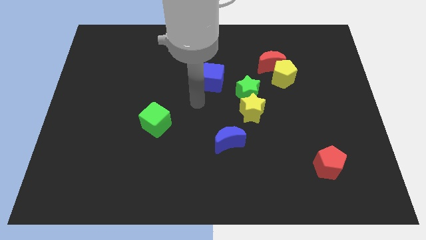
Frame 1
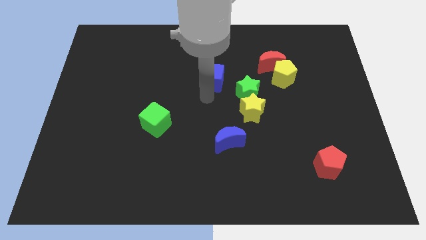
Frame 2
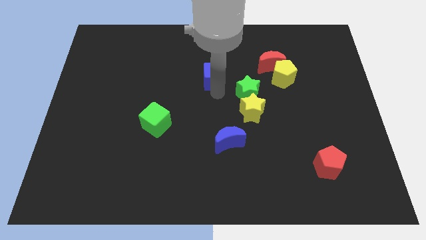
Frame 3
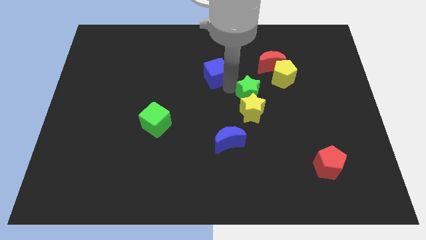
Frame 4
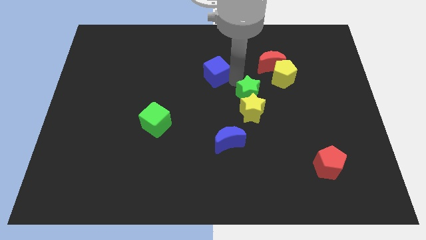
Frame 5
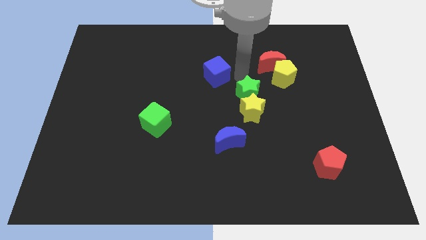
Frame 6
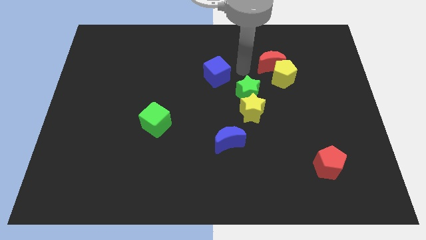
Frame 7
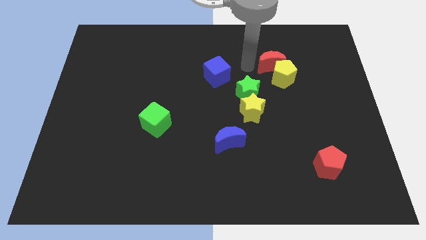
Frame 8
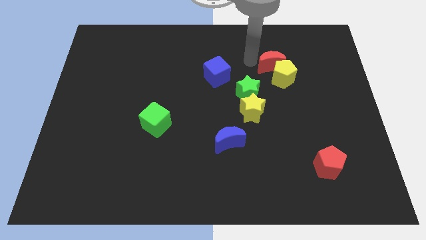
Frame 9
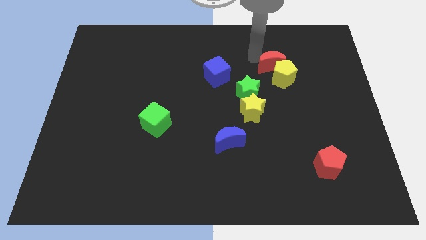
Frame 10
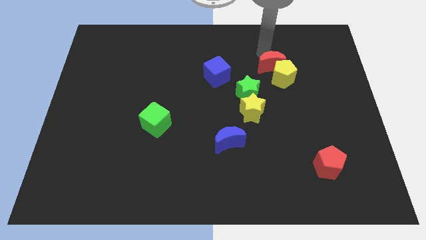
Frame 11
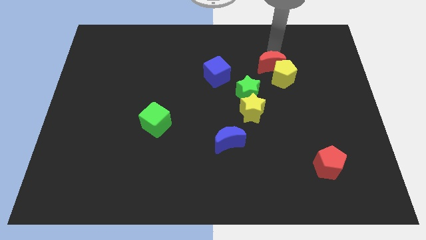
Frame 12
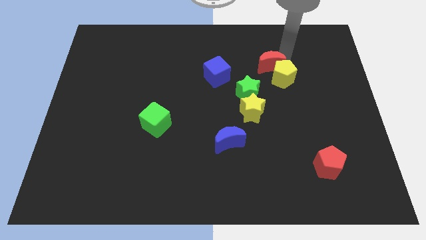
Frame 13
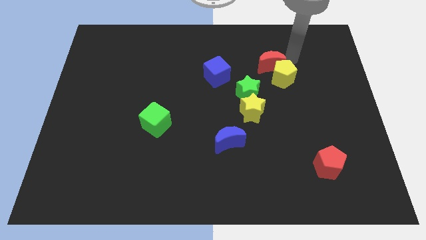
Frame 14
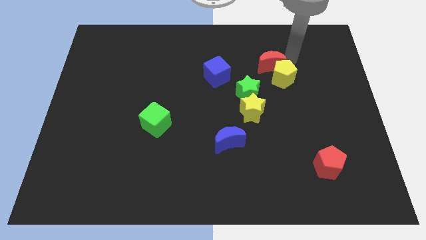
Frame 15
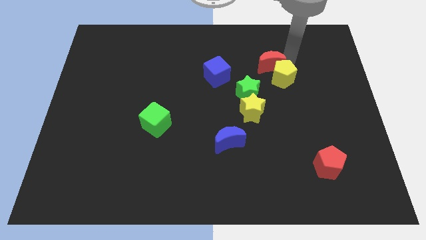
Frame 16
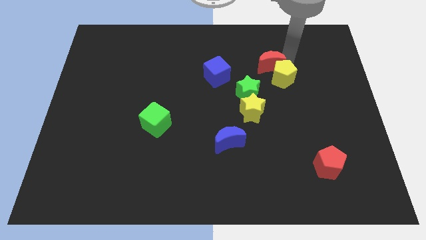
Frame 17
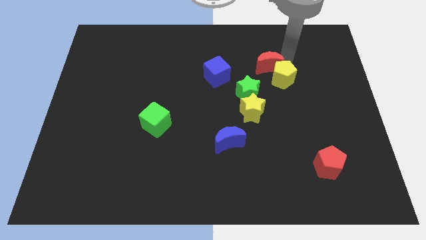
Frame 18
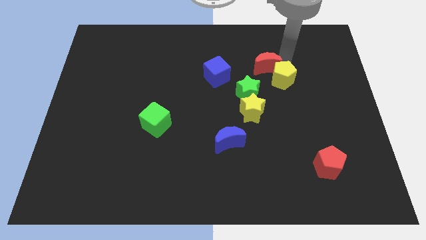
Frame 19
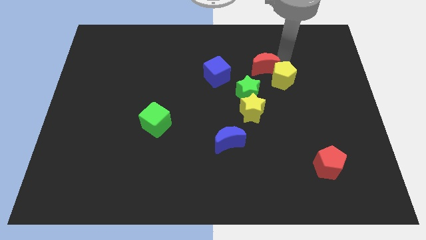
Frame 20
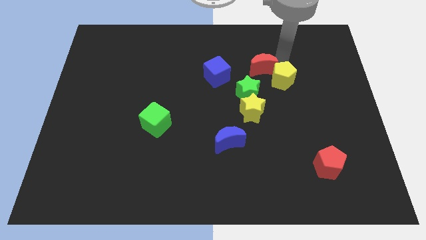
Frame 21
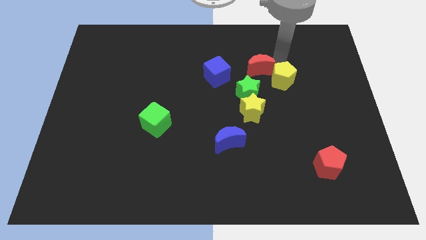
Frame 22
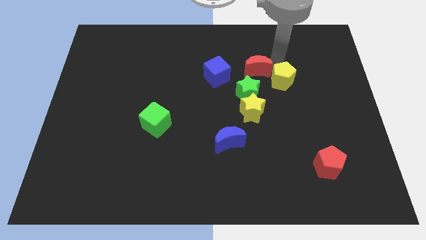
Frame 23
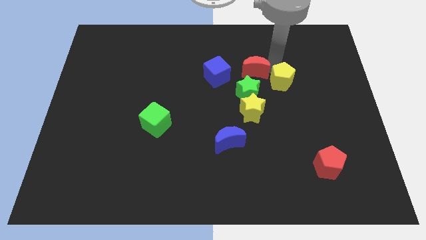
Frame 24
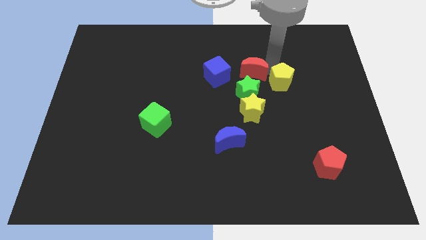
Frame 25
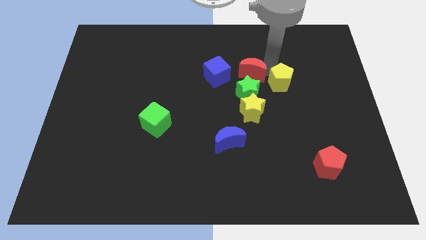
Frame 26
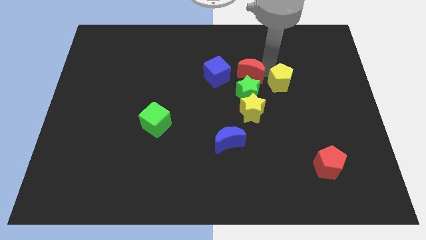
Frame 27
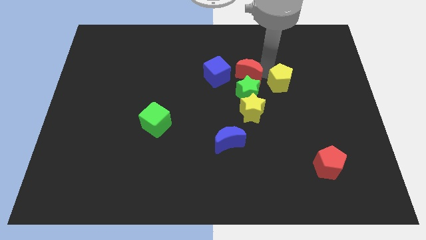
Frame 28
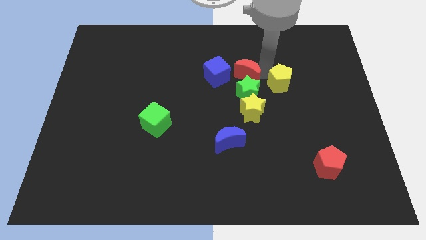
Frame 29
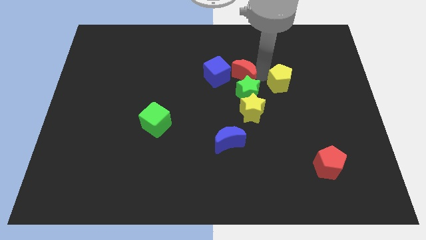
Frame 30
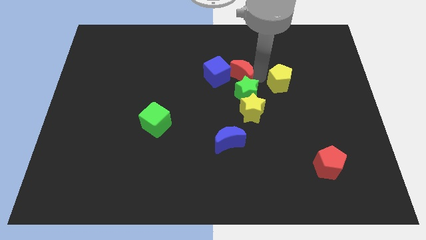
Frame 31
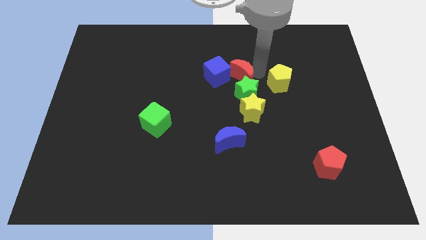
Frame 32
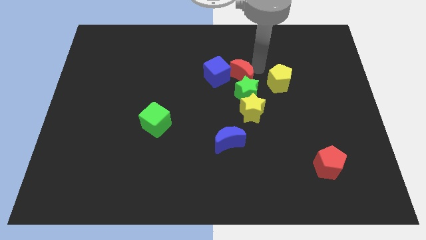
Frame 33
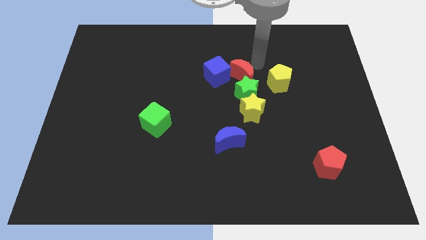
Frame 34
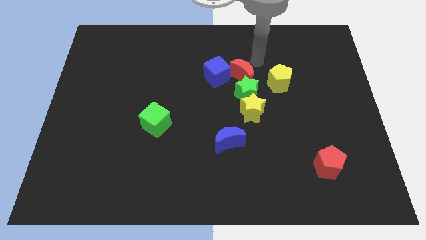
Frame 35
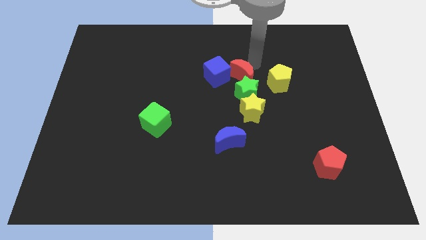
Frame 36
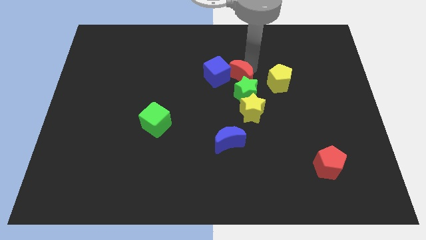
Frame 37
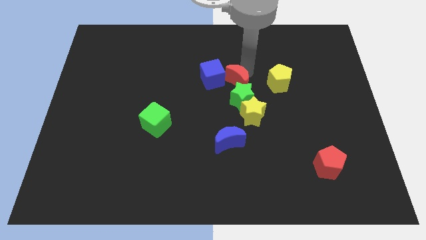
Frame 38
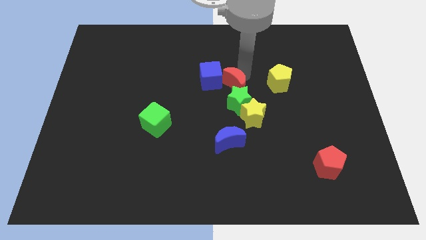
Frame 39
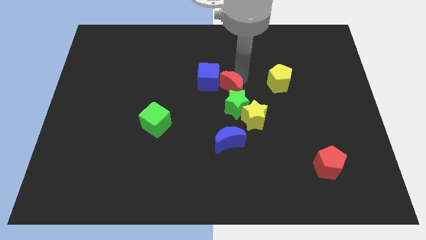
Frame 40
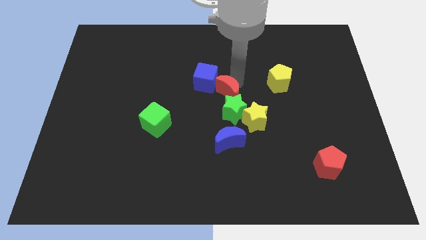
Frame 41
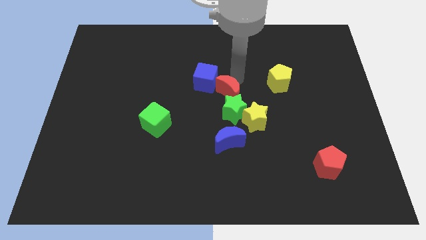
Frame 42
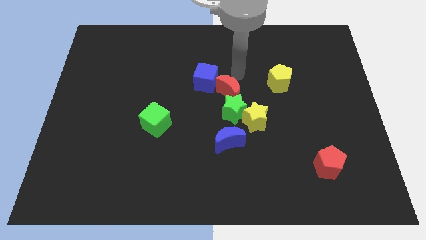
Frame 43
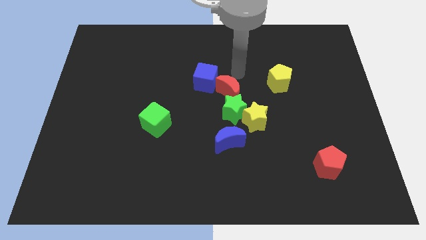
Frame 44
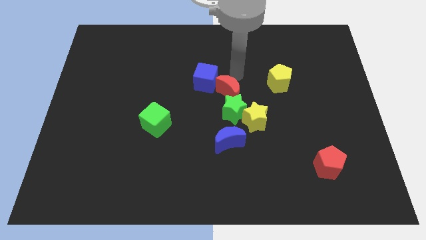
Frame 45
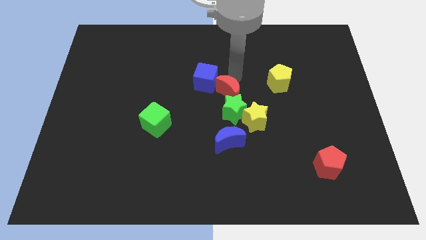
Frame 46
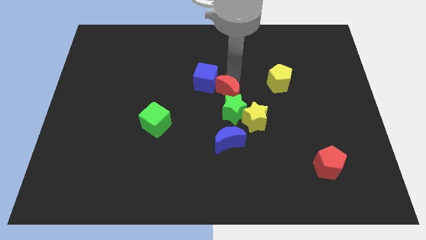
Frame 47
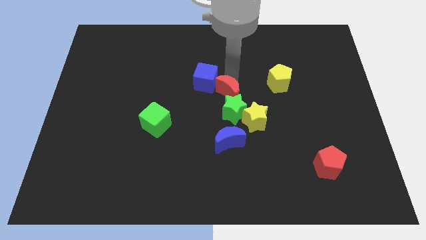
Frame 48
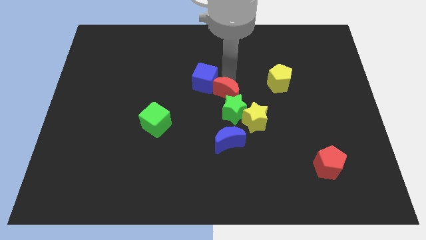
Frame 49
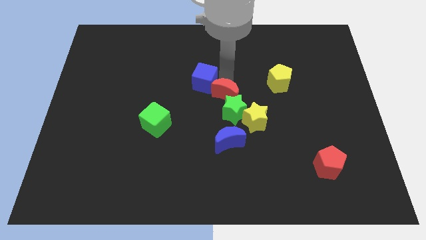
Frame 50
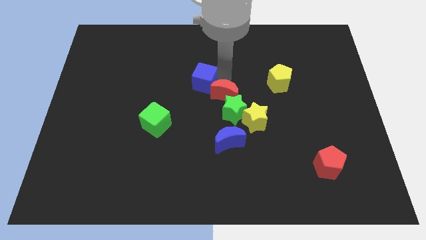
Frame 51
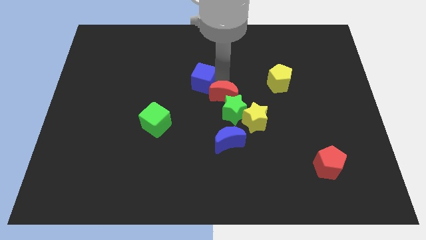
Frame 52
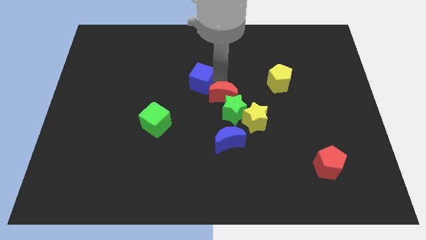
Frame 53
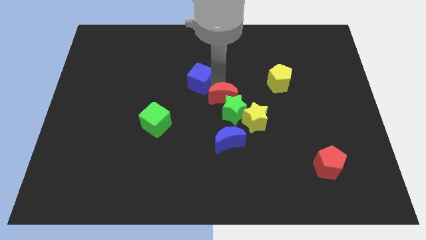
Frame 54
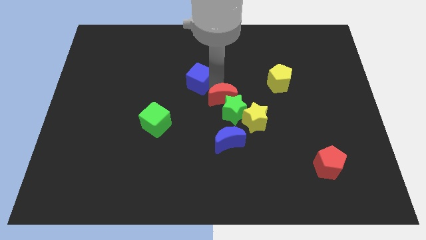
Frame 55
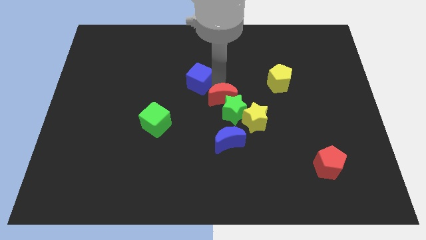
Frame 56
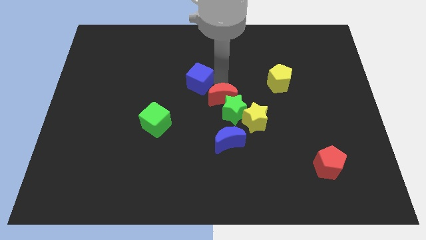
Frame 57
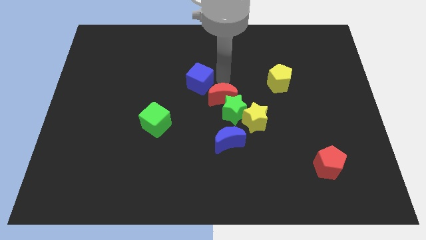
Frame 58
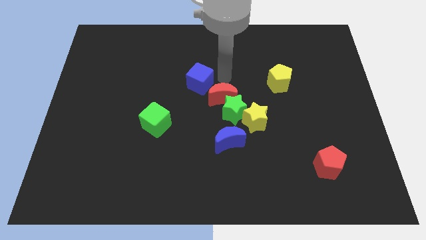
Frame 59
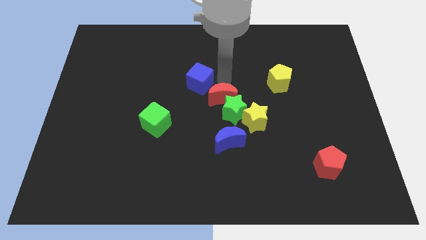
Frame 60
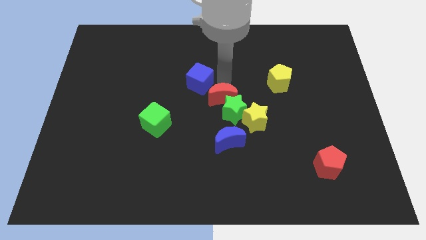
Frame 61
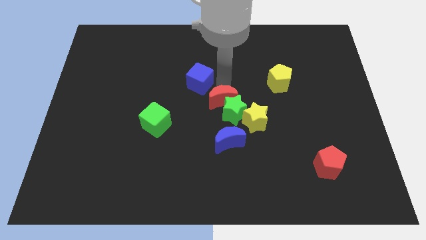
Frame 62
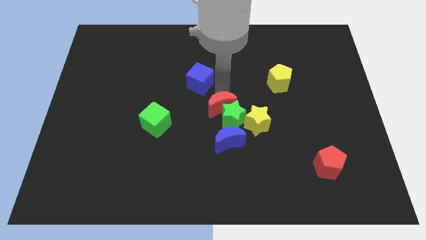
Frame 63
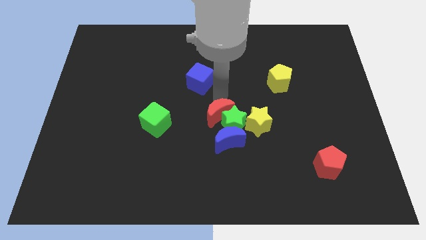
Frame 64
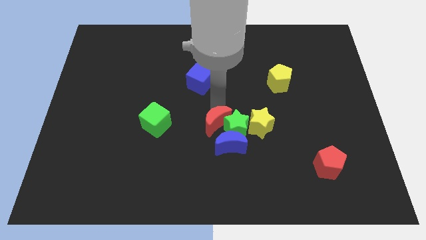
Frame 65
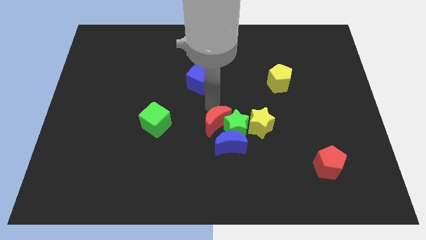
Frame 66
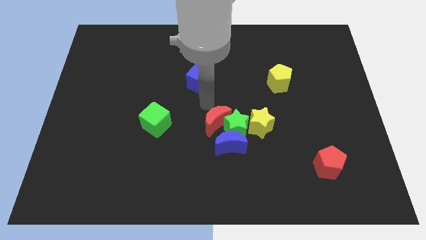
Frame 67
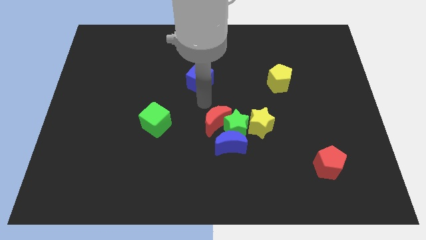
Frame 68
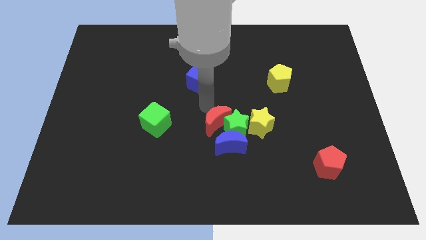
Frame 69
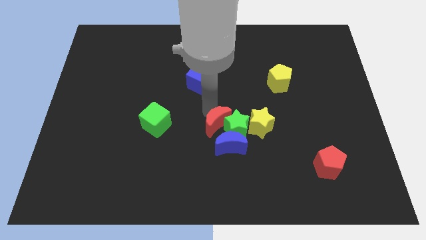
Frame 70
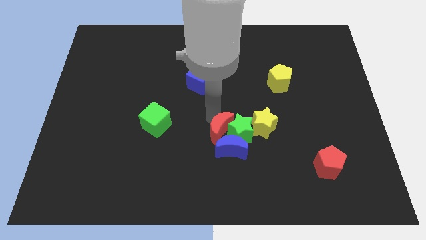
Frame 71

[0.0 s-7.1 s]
push the red moon close to the blue moon
